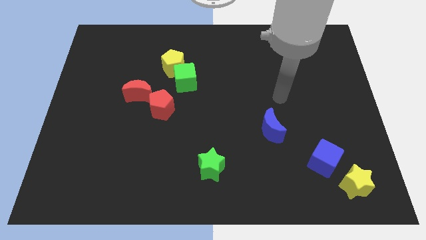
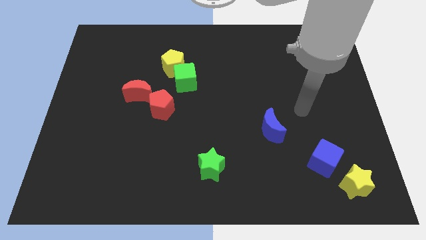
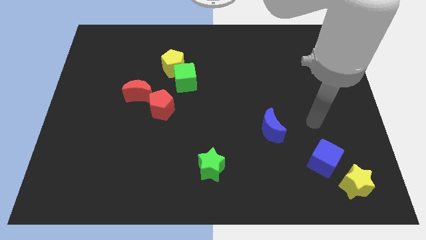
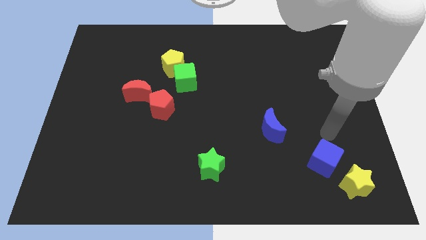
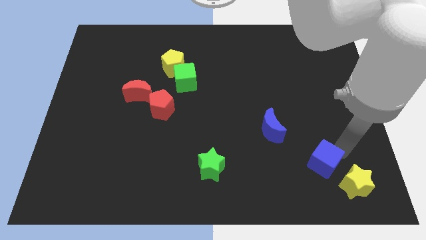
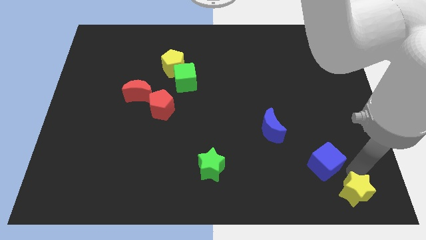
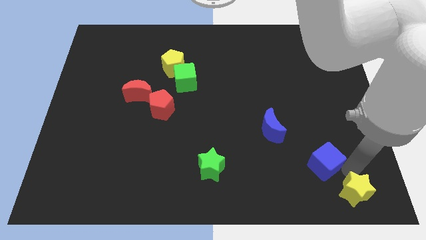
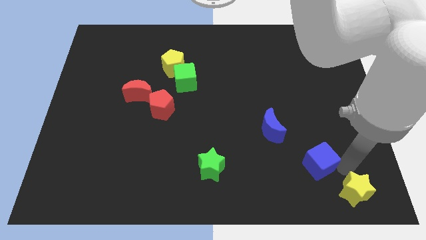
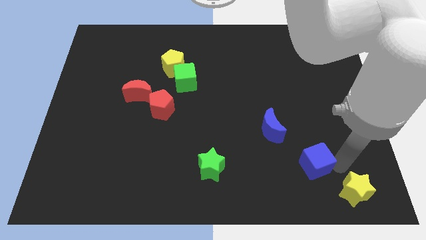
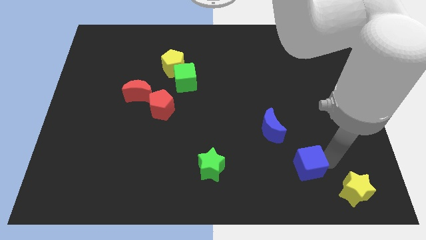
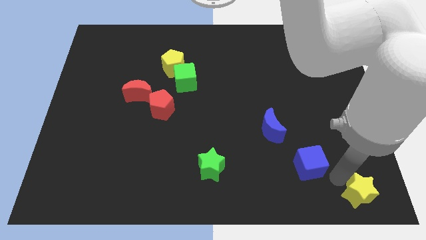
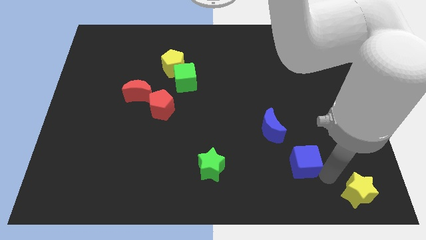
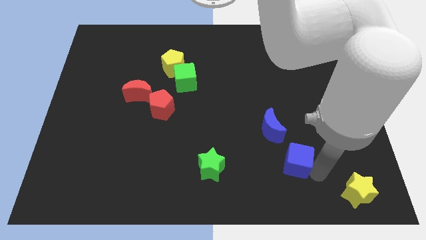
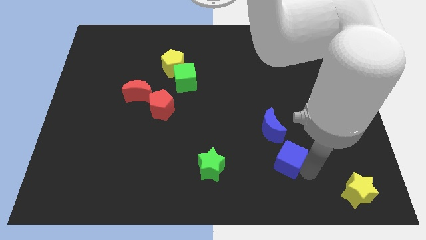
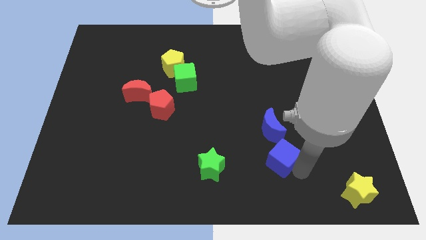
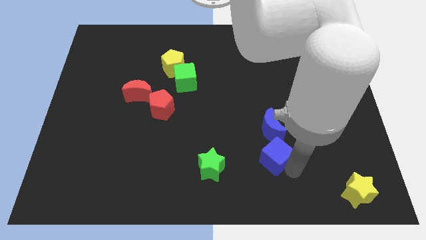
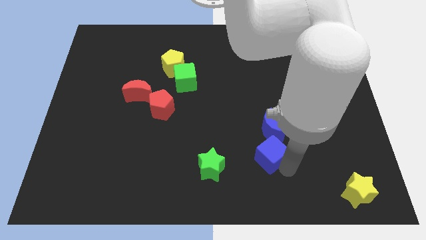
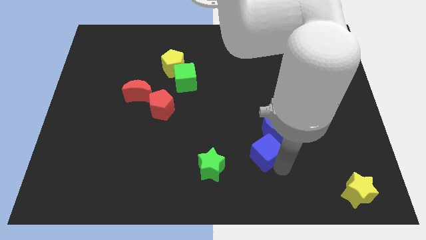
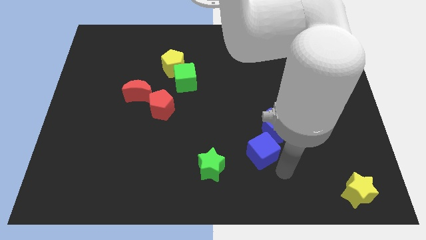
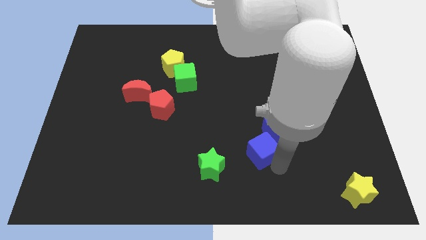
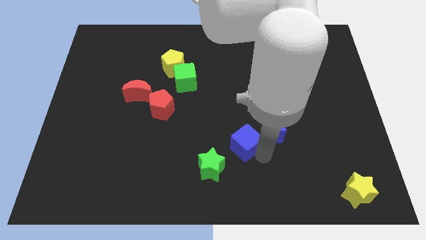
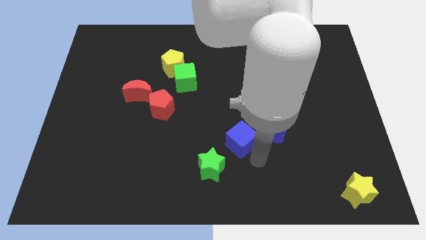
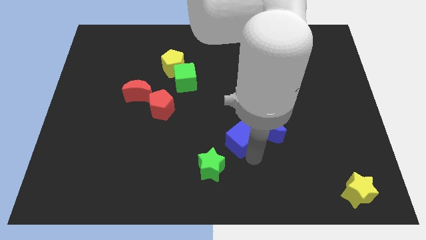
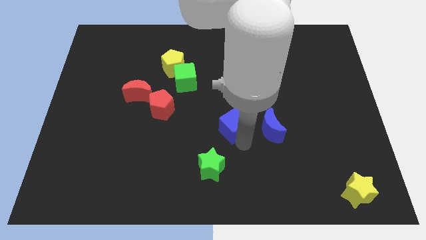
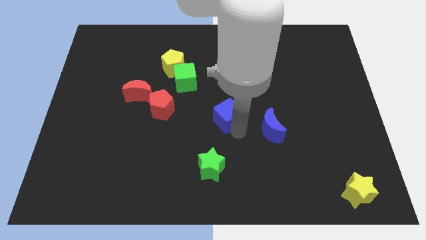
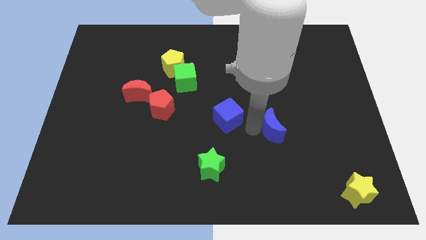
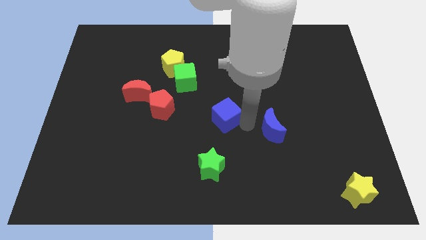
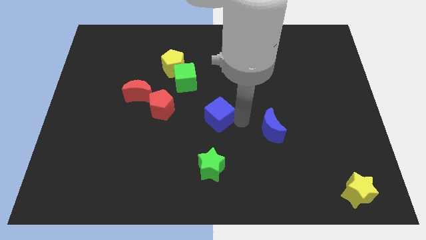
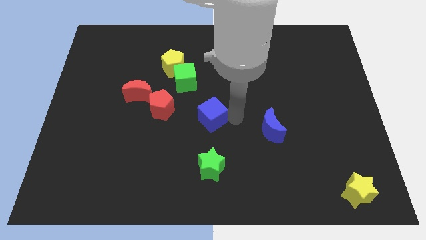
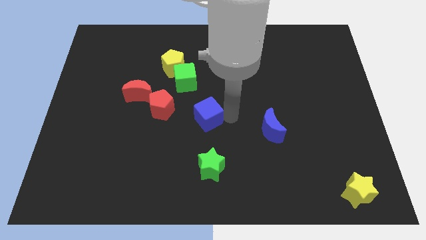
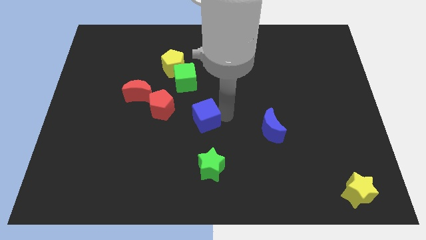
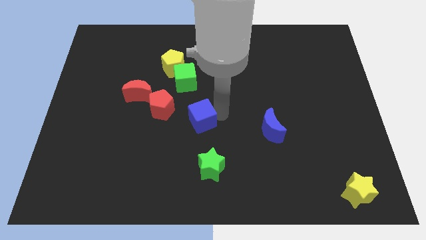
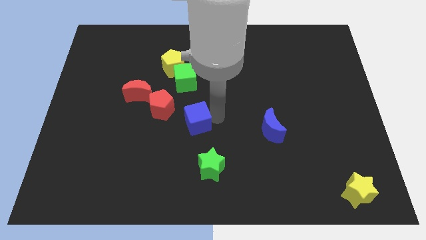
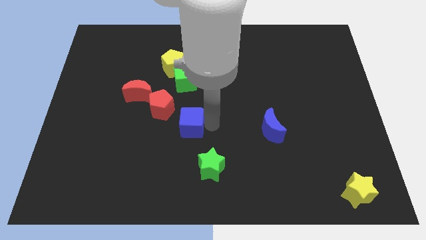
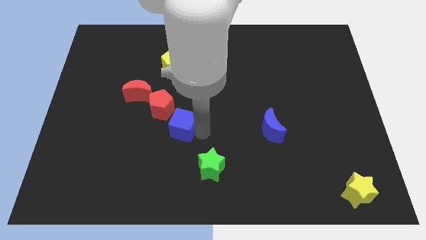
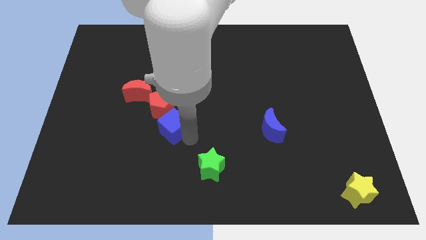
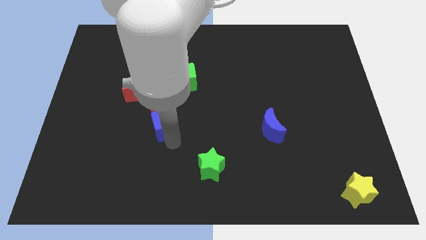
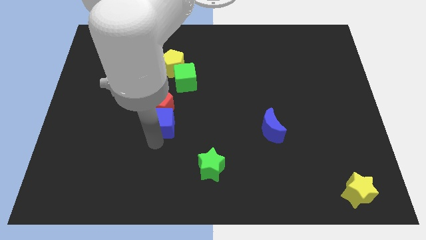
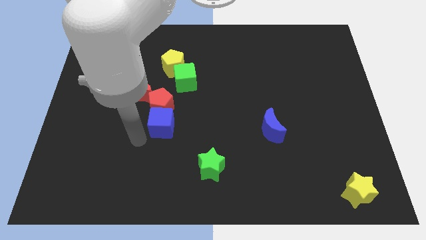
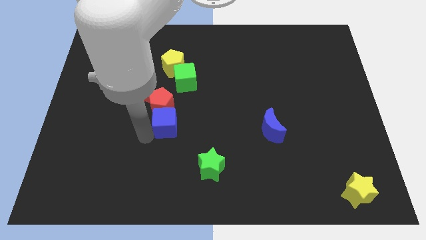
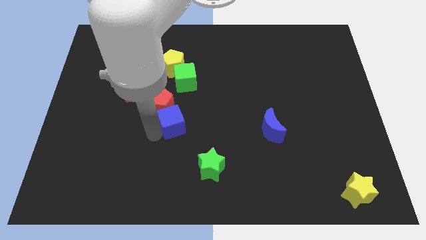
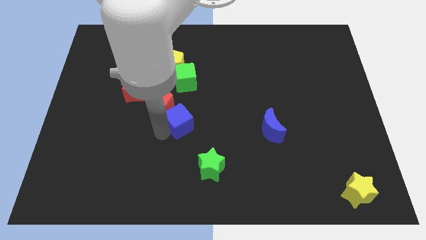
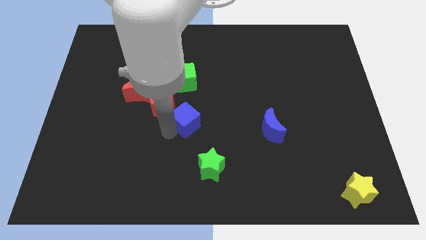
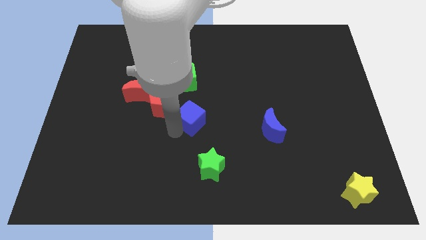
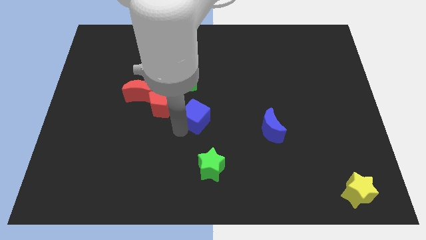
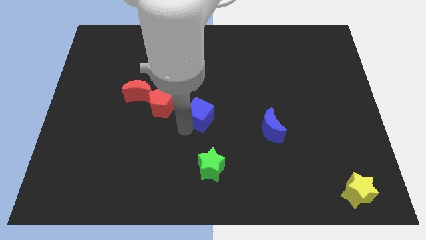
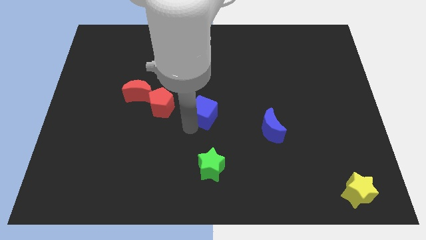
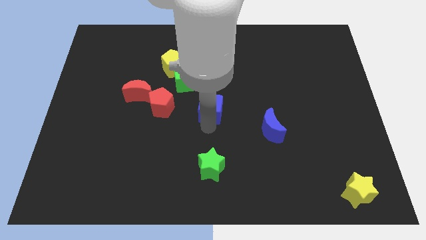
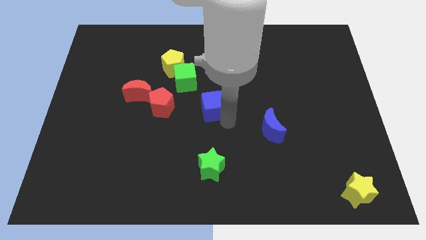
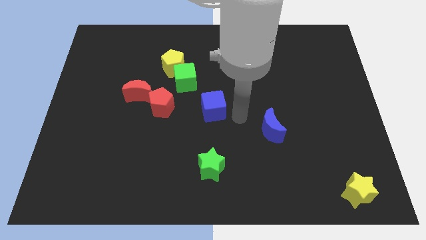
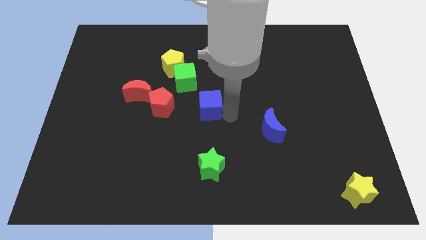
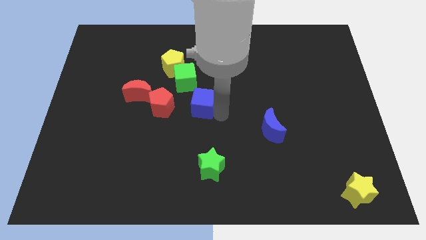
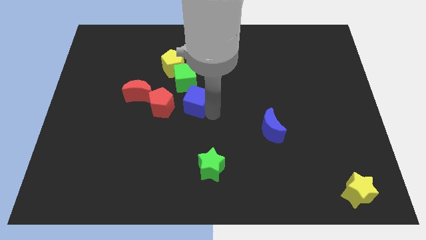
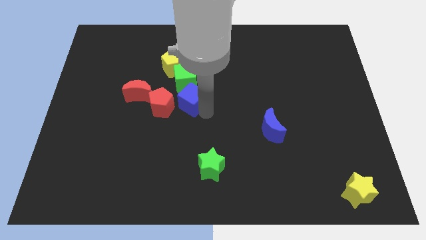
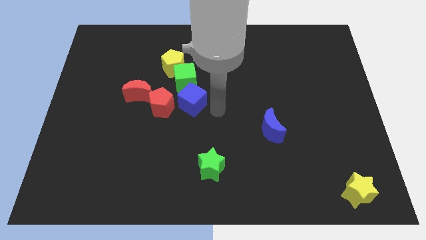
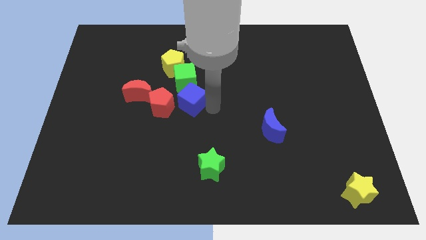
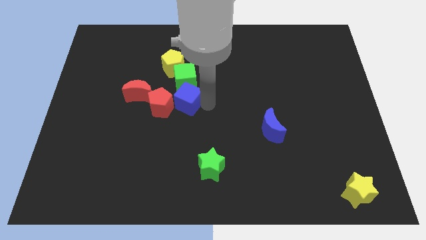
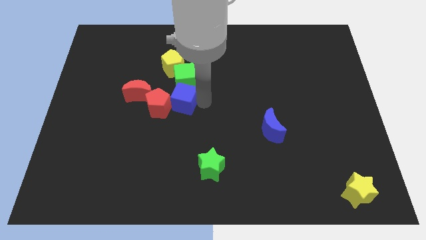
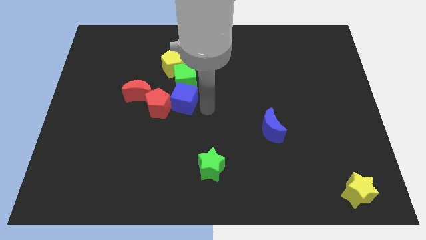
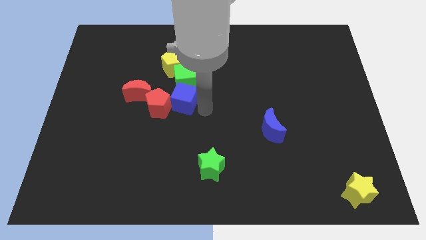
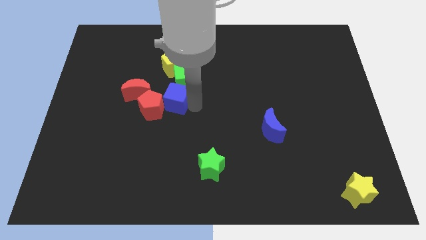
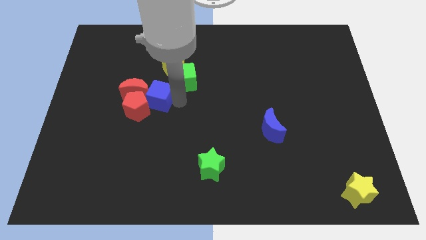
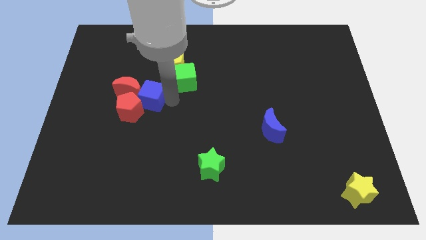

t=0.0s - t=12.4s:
push the blue cube towards the red moon

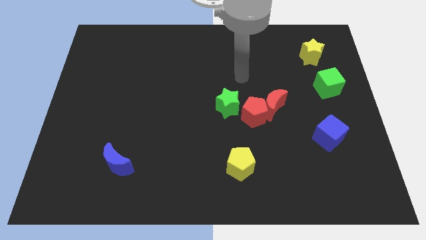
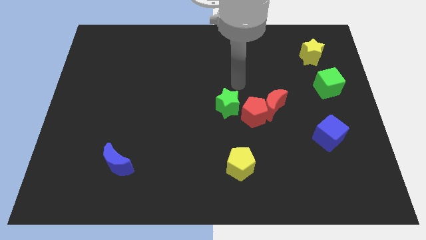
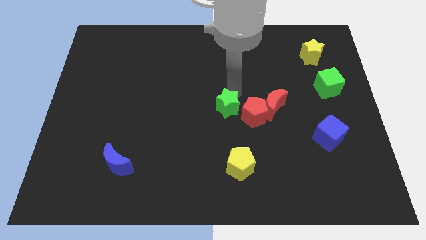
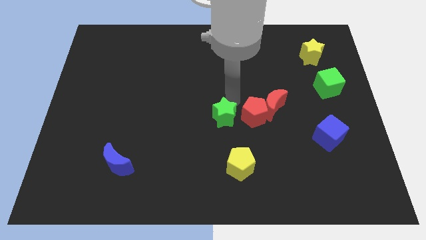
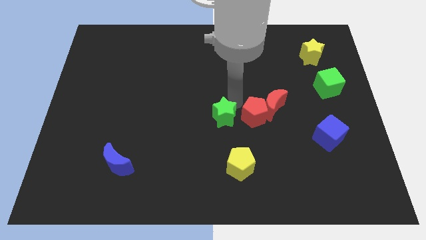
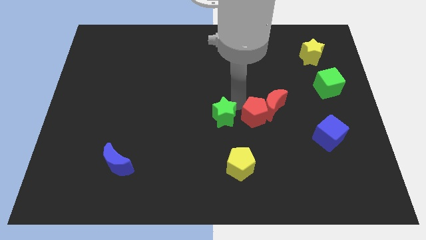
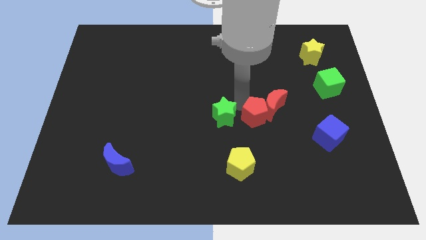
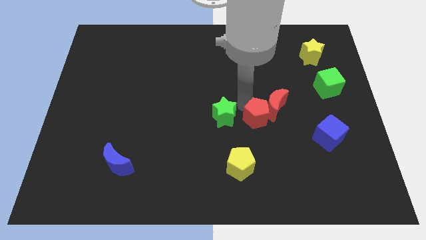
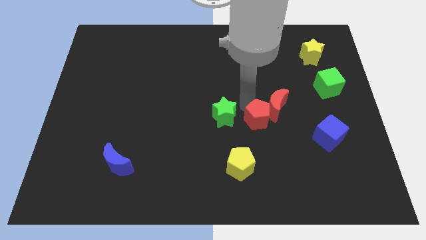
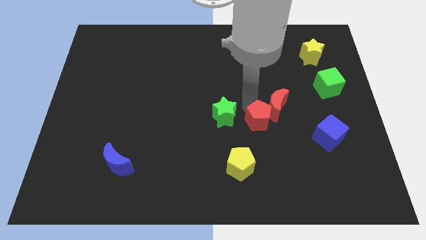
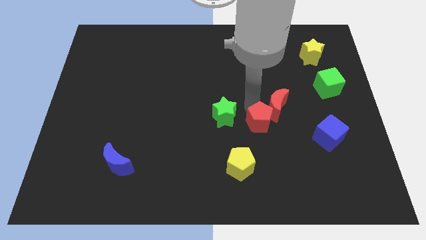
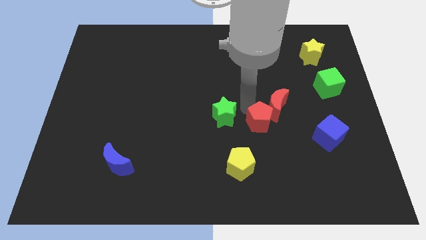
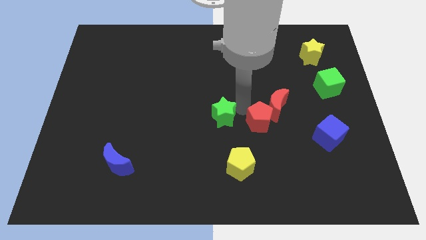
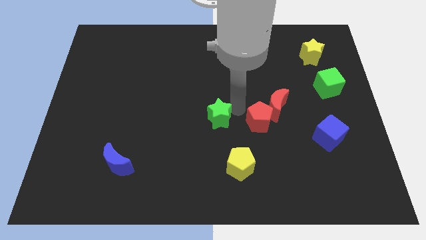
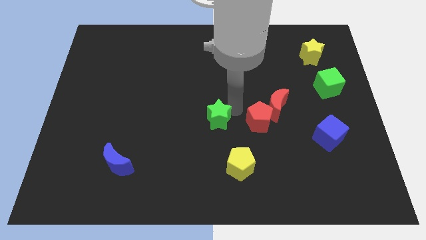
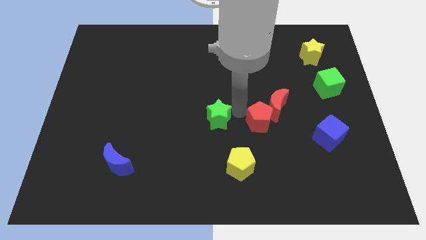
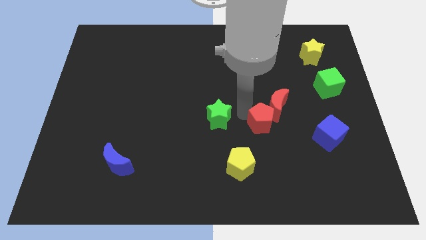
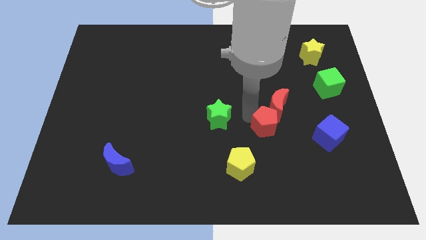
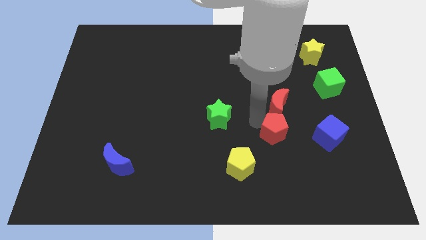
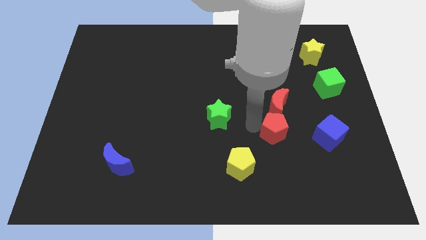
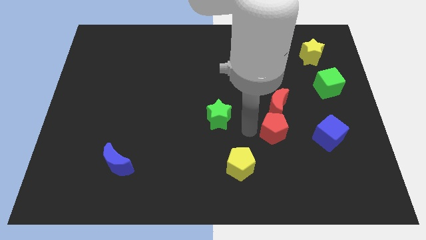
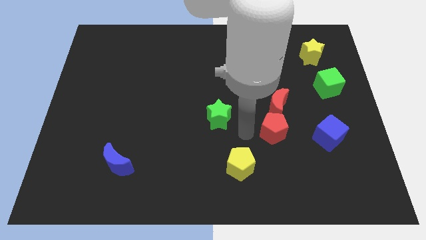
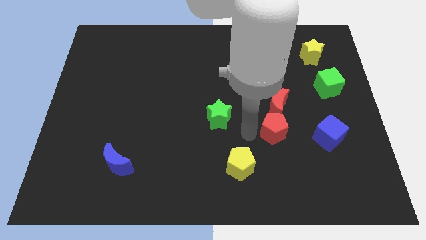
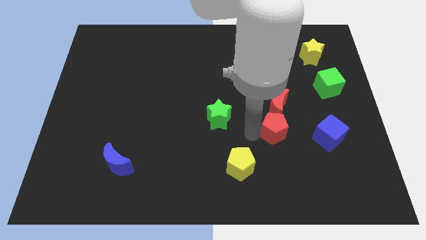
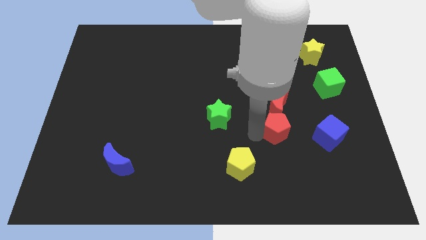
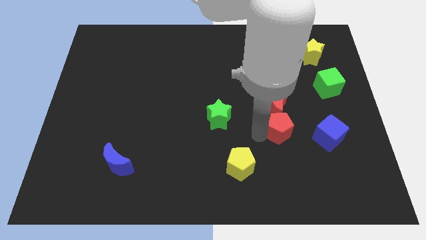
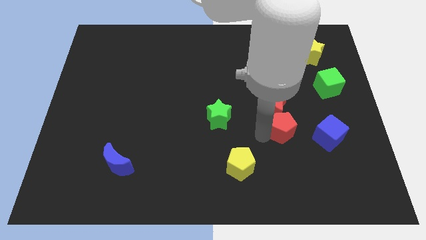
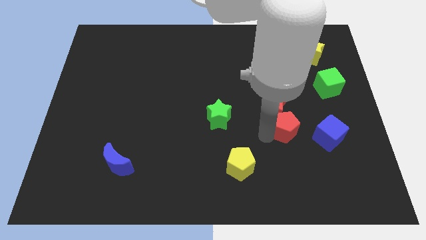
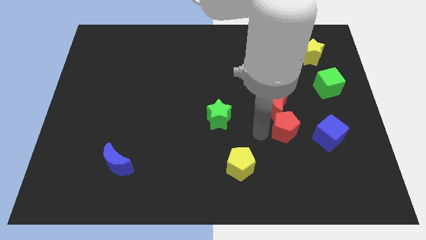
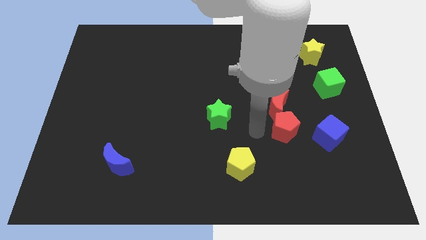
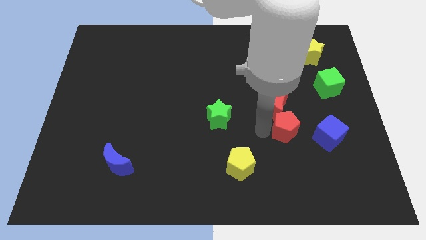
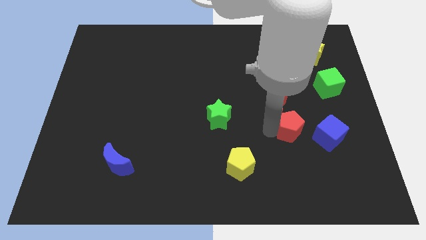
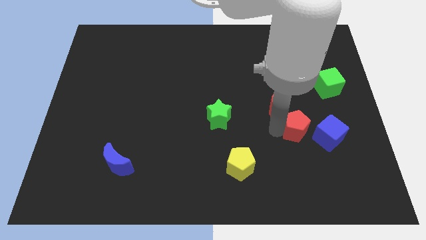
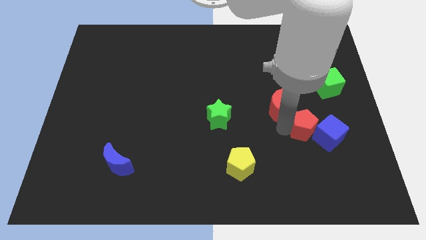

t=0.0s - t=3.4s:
put the red pentagon towards the blue cube
